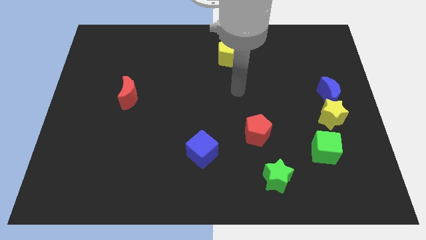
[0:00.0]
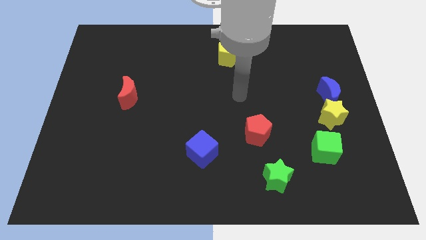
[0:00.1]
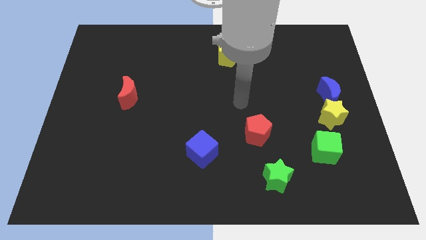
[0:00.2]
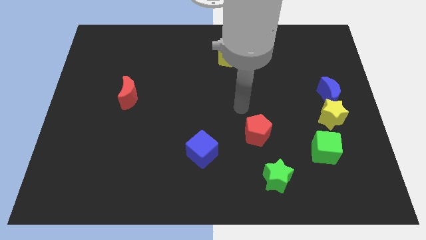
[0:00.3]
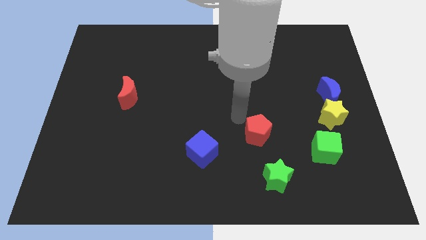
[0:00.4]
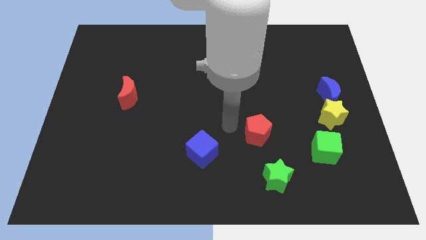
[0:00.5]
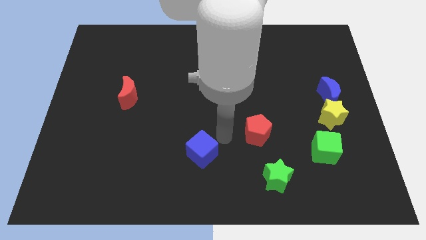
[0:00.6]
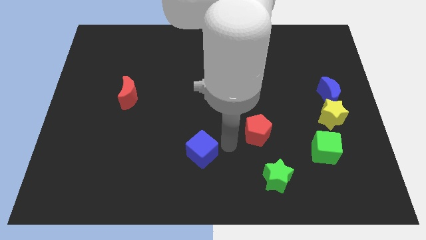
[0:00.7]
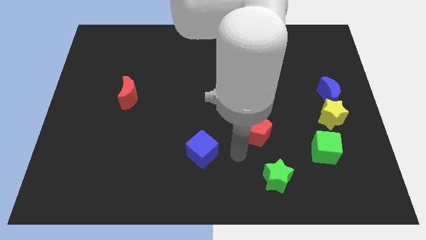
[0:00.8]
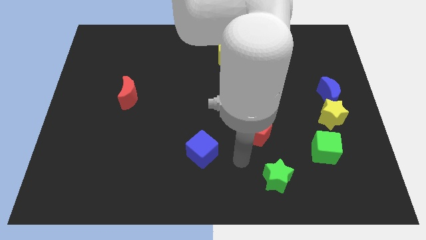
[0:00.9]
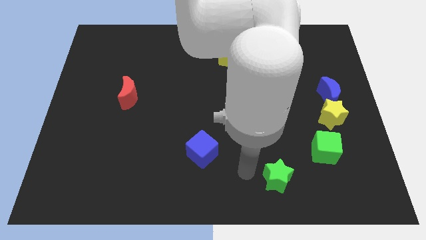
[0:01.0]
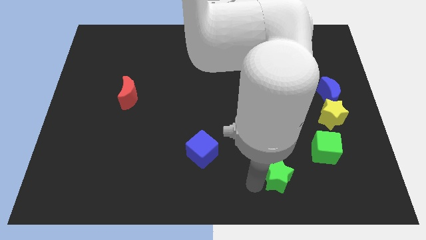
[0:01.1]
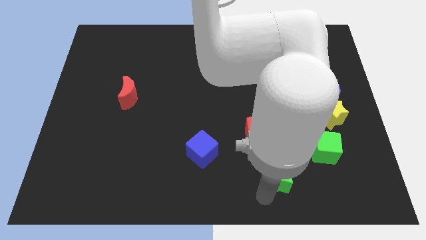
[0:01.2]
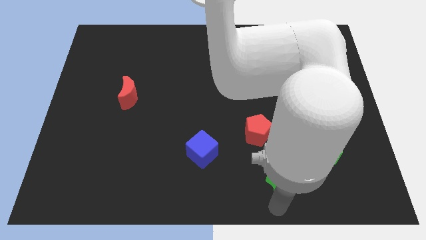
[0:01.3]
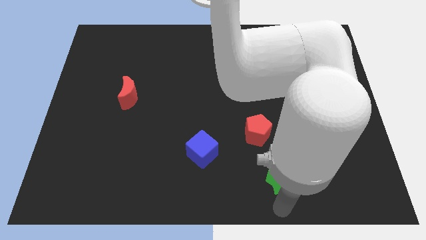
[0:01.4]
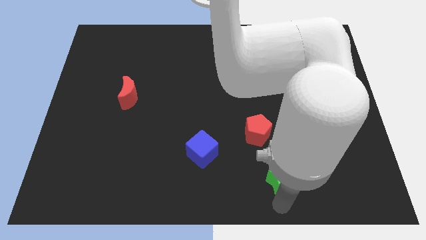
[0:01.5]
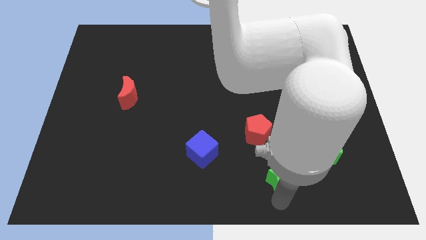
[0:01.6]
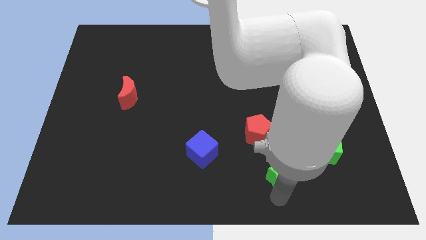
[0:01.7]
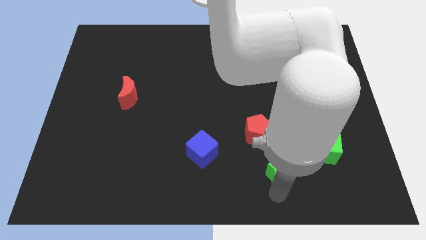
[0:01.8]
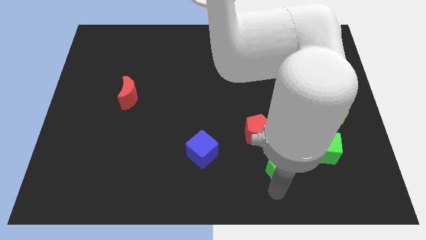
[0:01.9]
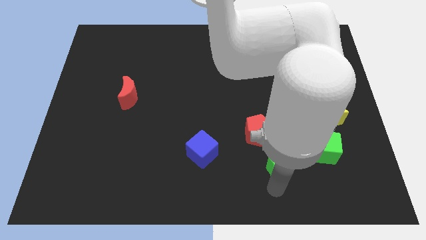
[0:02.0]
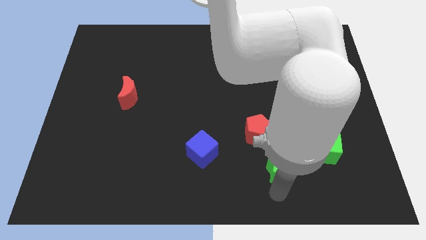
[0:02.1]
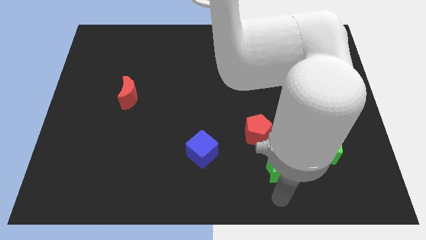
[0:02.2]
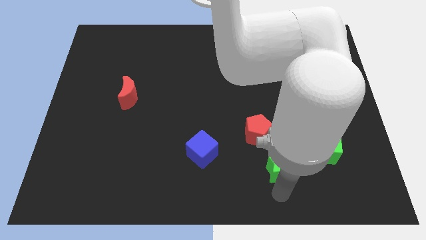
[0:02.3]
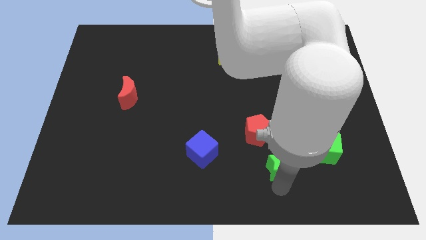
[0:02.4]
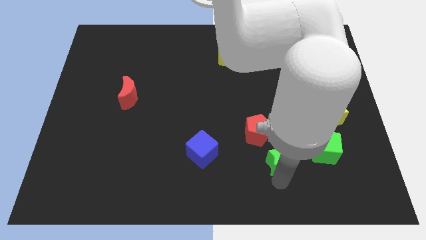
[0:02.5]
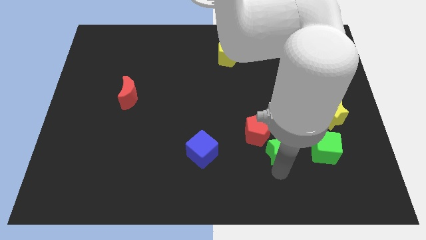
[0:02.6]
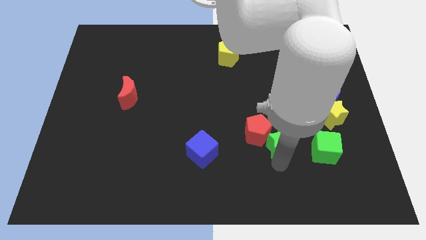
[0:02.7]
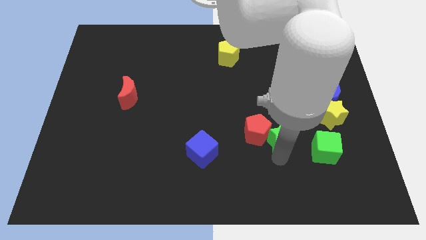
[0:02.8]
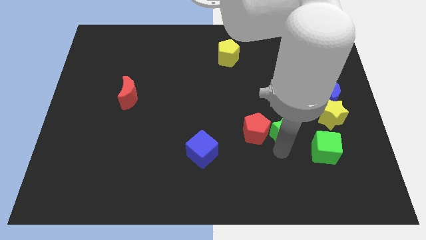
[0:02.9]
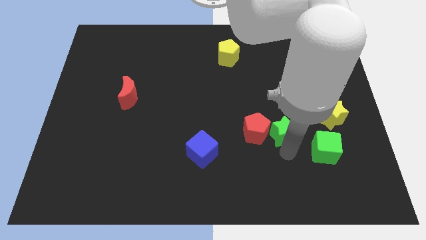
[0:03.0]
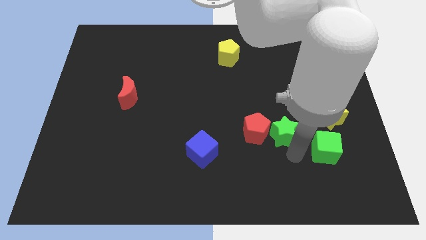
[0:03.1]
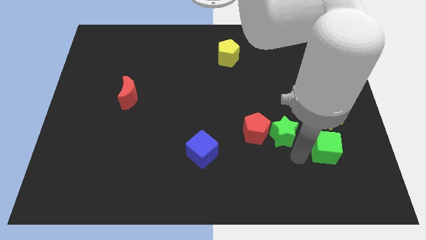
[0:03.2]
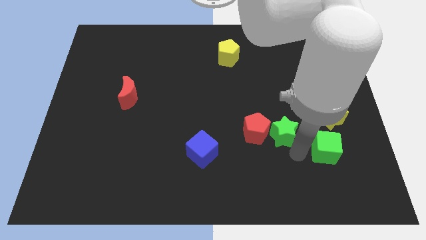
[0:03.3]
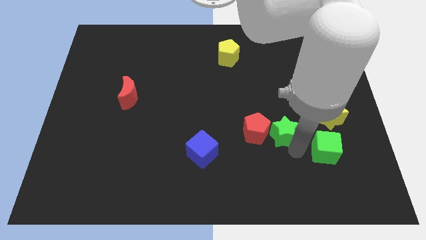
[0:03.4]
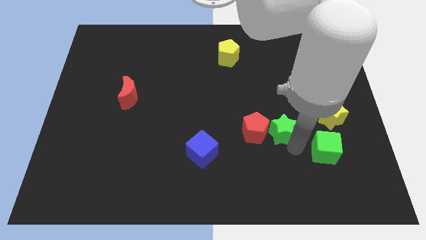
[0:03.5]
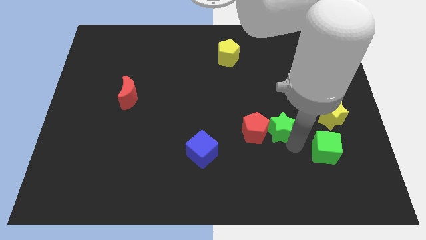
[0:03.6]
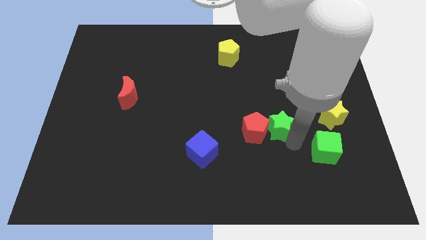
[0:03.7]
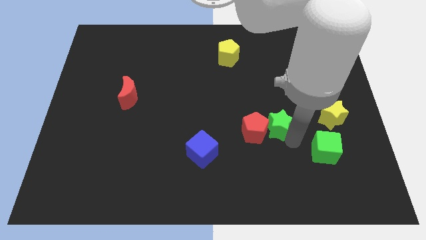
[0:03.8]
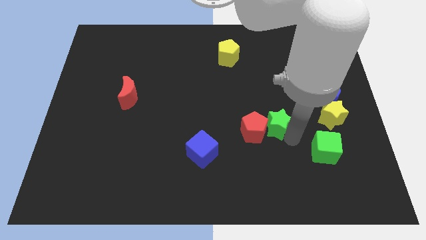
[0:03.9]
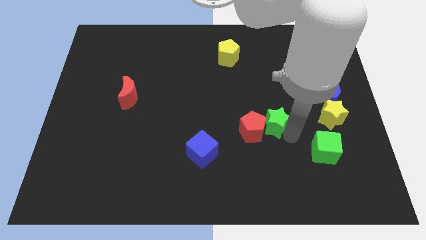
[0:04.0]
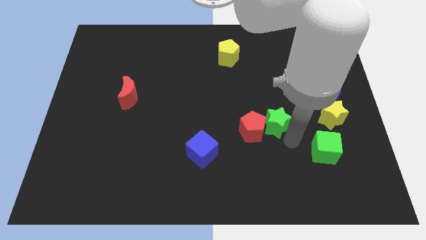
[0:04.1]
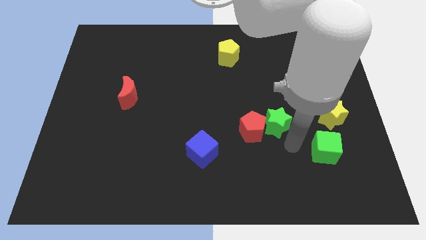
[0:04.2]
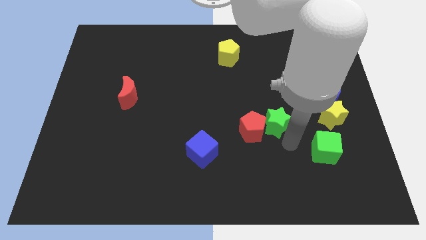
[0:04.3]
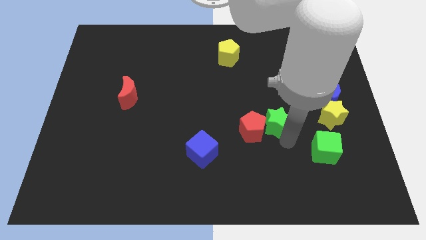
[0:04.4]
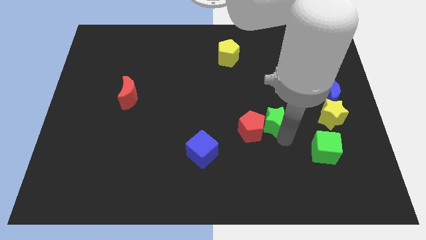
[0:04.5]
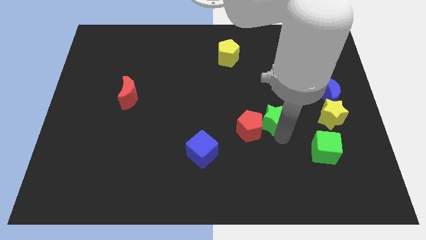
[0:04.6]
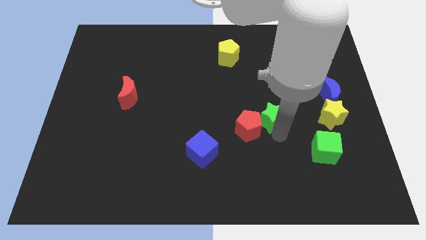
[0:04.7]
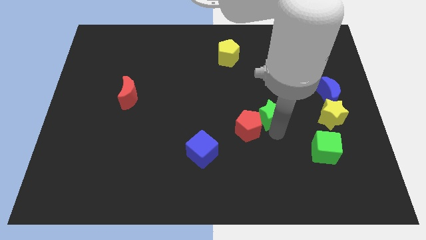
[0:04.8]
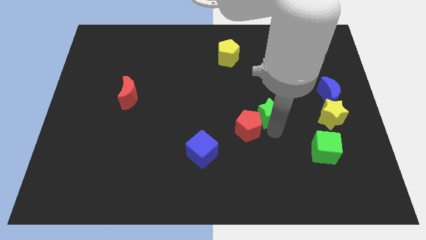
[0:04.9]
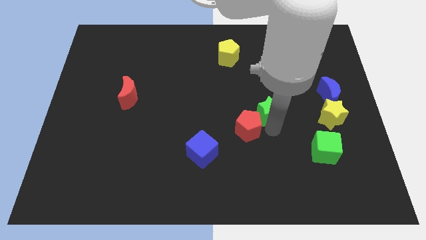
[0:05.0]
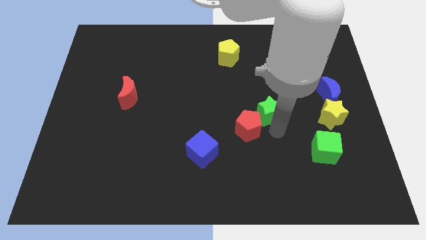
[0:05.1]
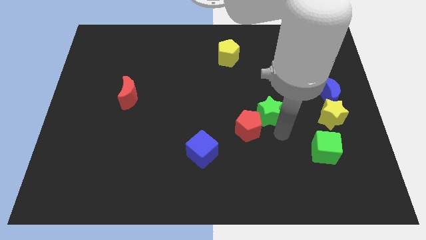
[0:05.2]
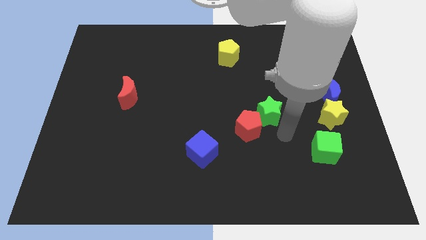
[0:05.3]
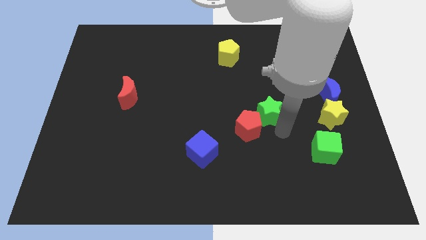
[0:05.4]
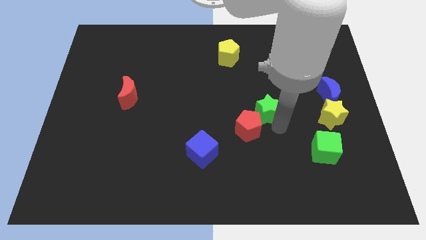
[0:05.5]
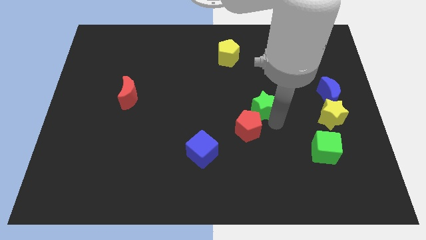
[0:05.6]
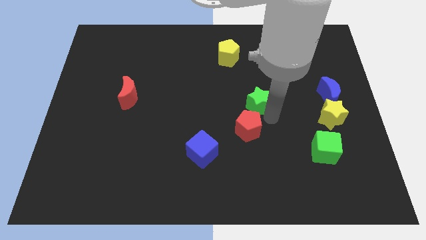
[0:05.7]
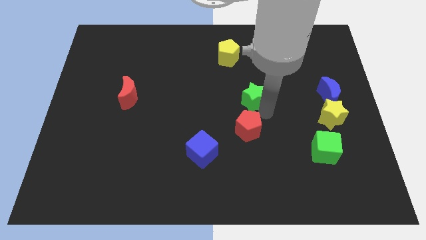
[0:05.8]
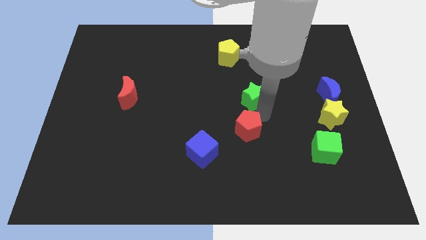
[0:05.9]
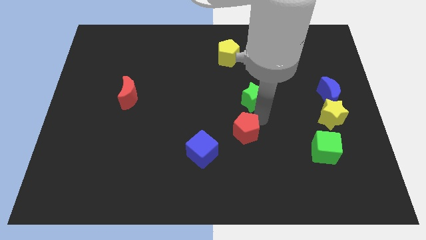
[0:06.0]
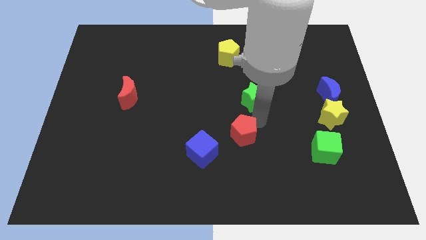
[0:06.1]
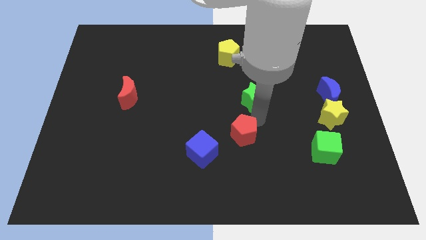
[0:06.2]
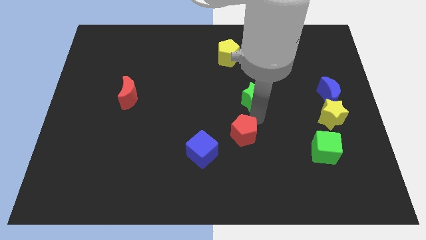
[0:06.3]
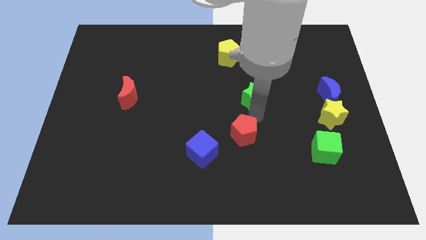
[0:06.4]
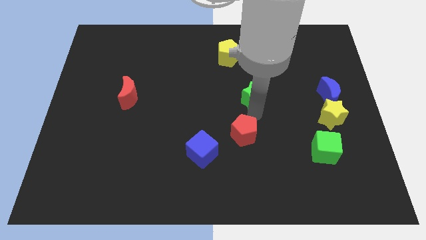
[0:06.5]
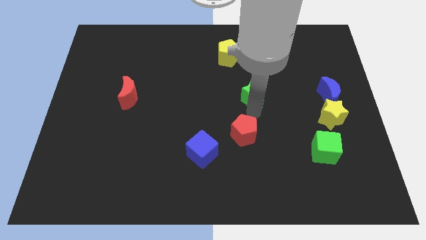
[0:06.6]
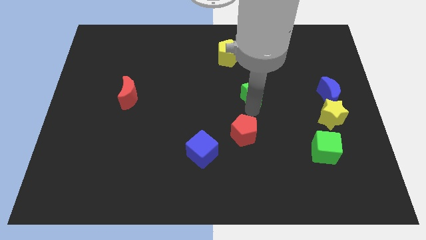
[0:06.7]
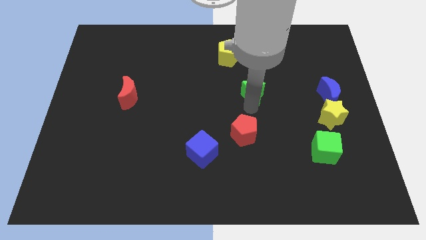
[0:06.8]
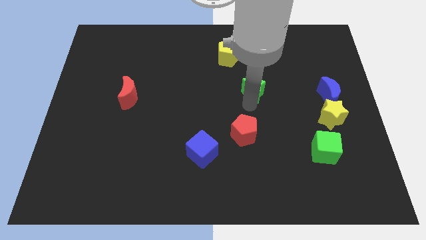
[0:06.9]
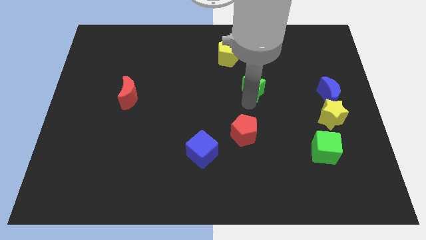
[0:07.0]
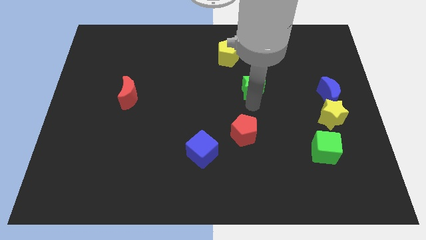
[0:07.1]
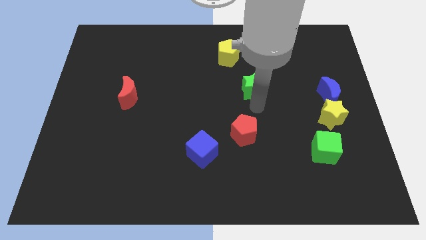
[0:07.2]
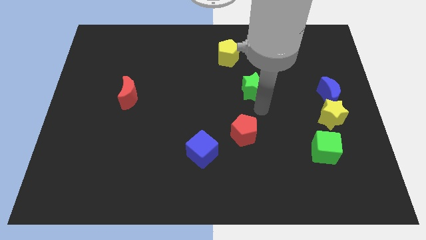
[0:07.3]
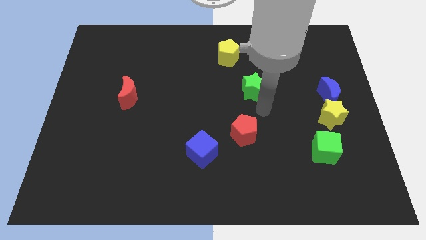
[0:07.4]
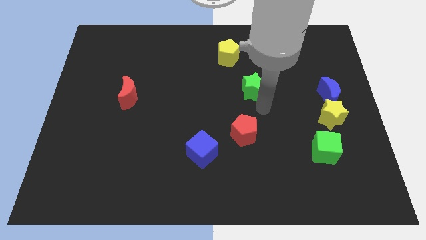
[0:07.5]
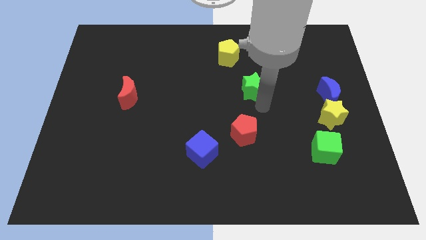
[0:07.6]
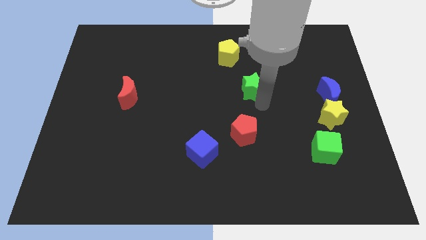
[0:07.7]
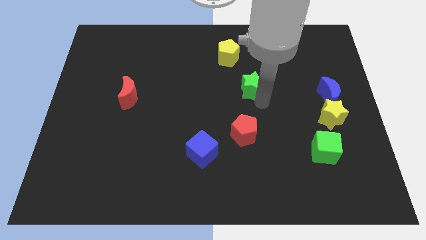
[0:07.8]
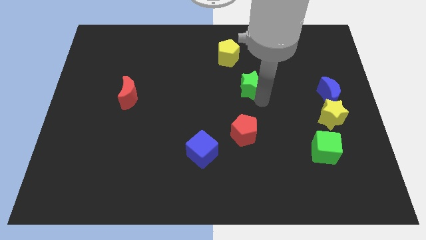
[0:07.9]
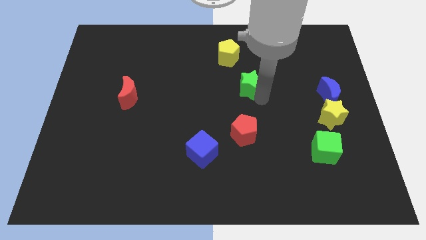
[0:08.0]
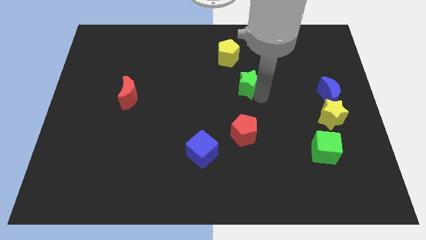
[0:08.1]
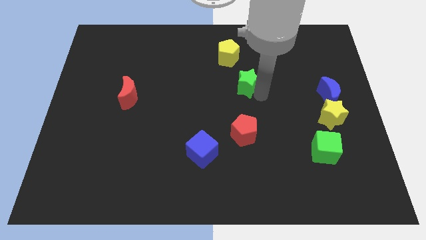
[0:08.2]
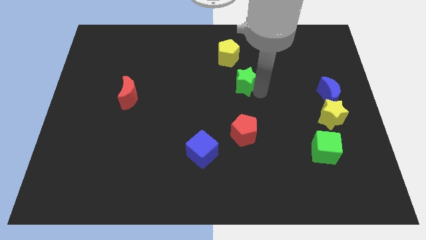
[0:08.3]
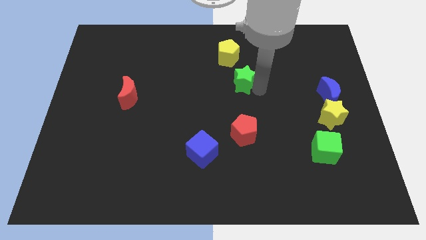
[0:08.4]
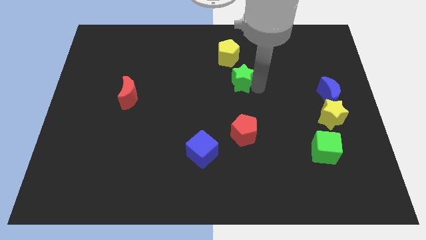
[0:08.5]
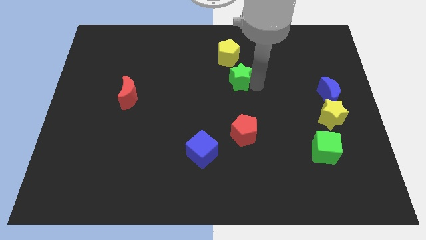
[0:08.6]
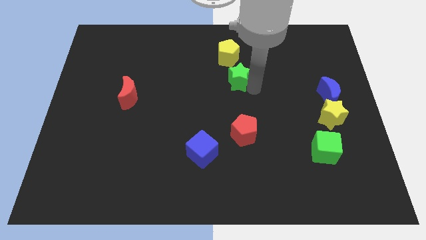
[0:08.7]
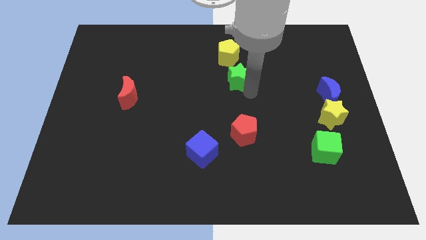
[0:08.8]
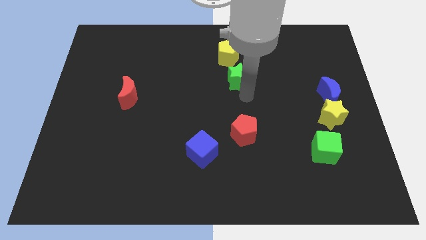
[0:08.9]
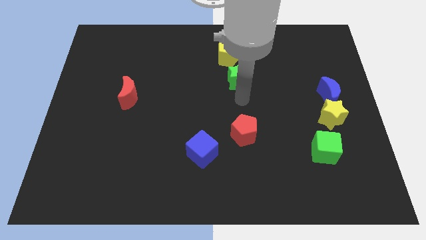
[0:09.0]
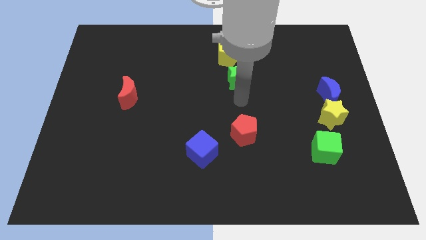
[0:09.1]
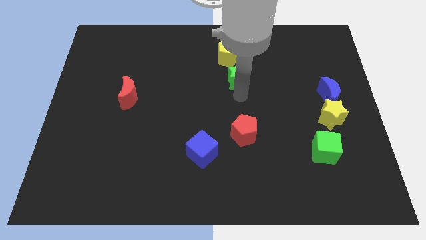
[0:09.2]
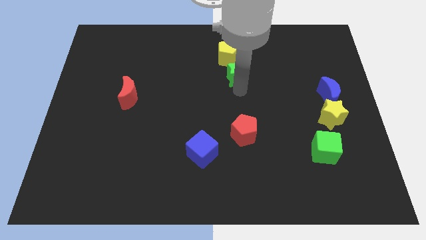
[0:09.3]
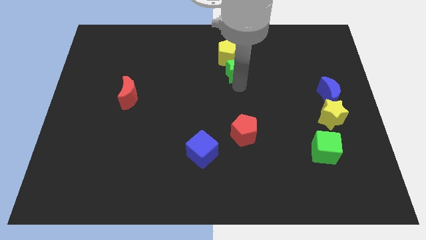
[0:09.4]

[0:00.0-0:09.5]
put the green star next to the yellow pentagon
